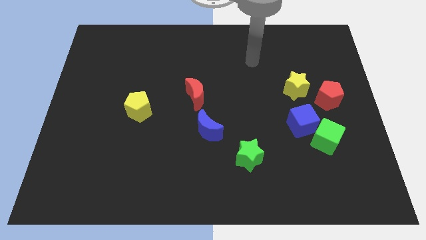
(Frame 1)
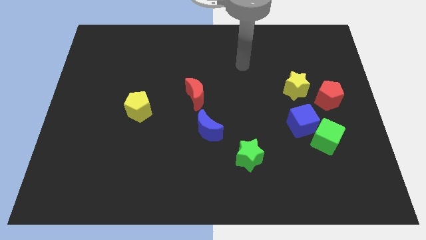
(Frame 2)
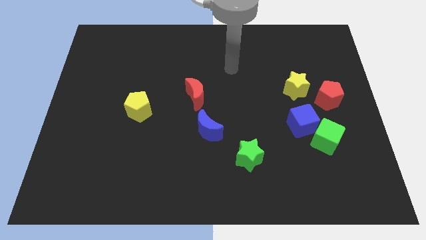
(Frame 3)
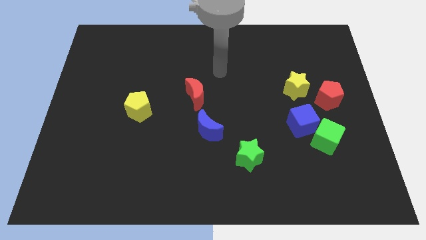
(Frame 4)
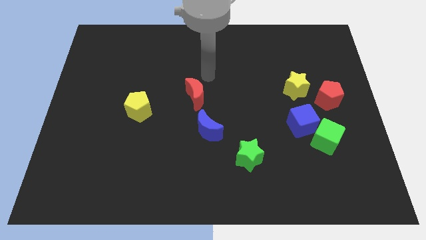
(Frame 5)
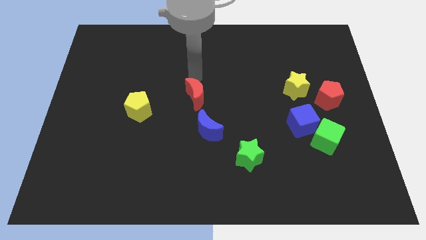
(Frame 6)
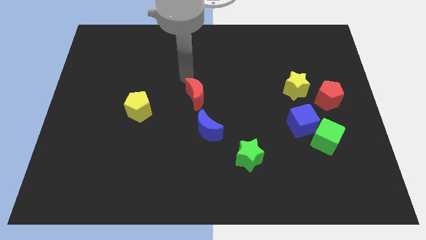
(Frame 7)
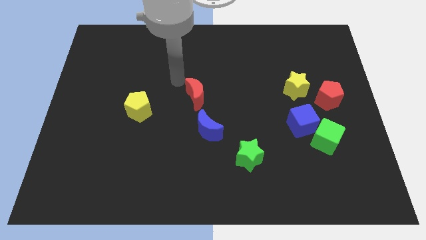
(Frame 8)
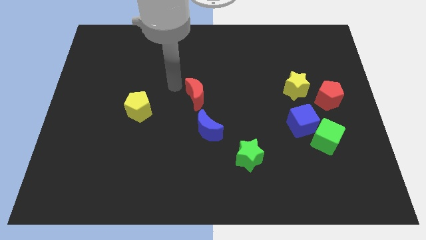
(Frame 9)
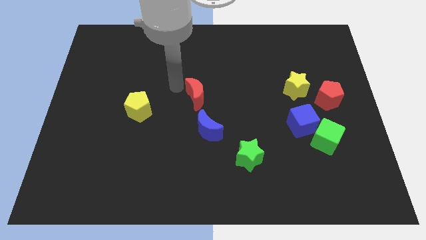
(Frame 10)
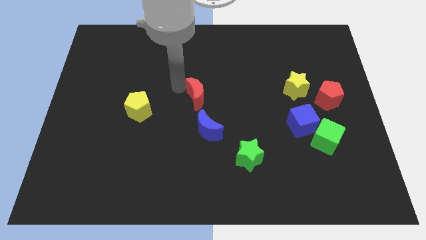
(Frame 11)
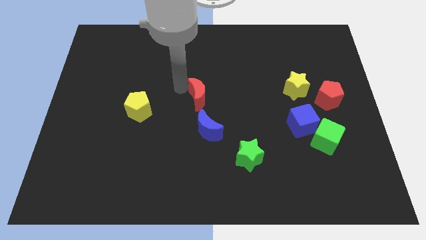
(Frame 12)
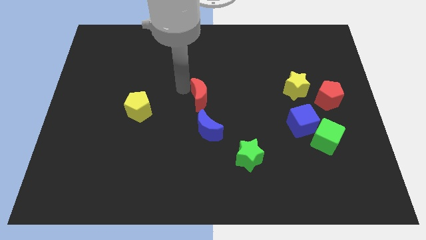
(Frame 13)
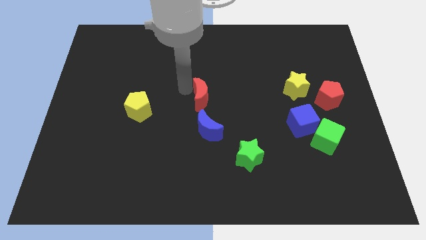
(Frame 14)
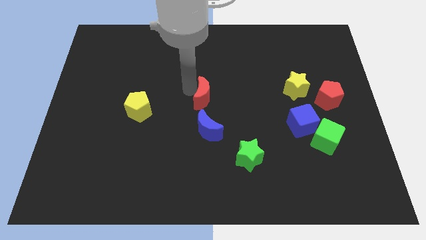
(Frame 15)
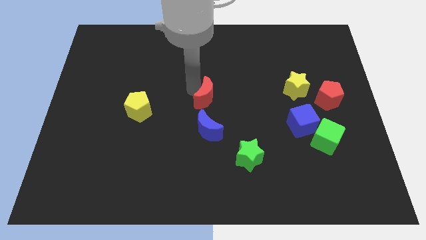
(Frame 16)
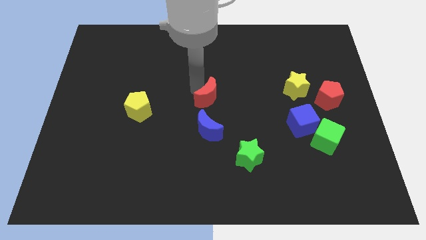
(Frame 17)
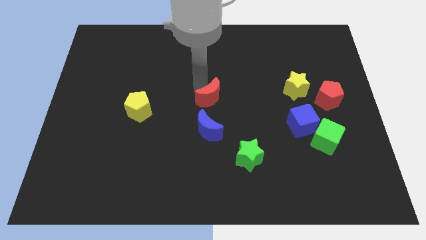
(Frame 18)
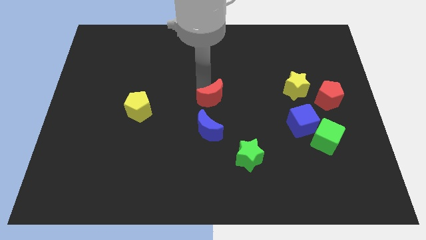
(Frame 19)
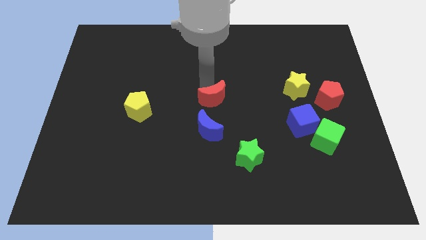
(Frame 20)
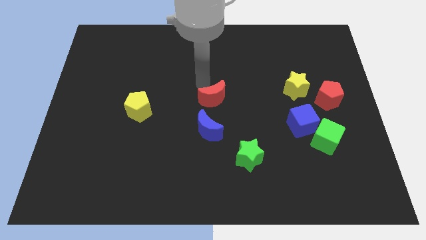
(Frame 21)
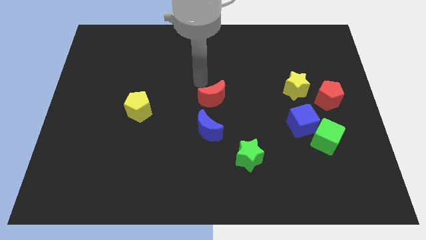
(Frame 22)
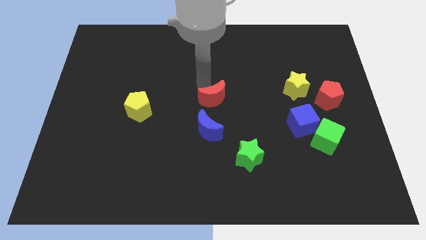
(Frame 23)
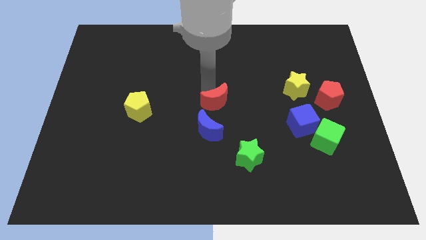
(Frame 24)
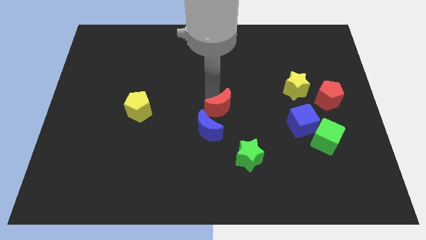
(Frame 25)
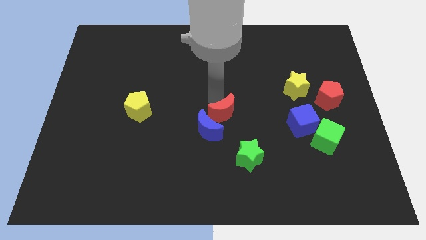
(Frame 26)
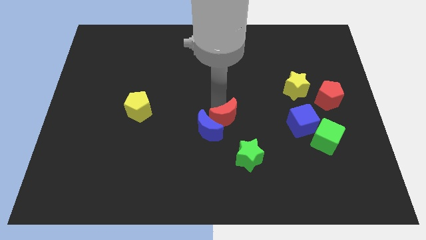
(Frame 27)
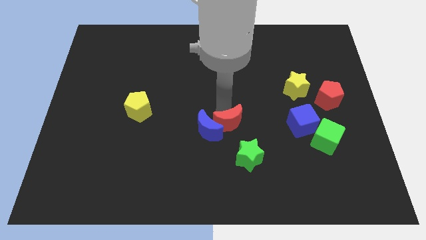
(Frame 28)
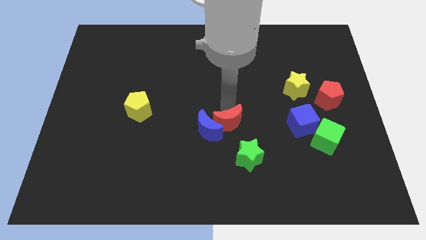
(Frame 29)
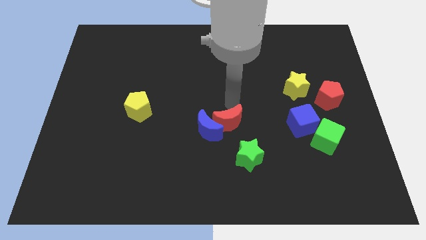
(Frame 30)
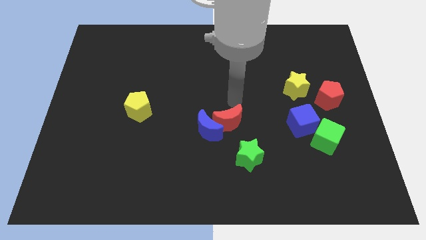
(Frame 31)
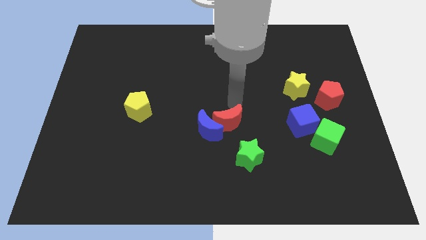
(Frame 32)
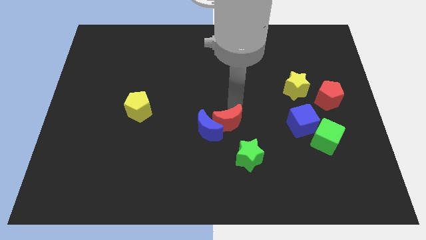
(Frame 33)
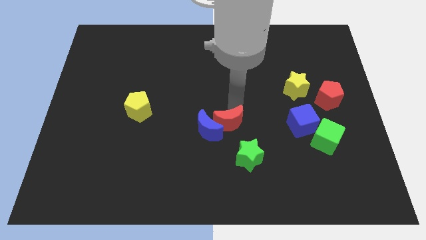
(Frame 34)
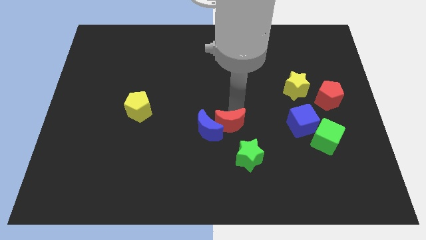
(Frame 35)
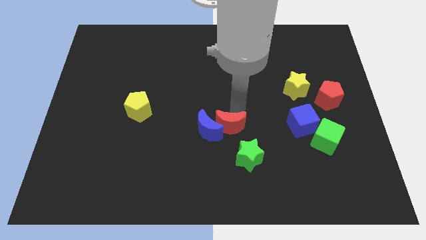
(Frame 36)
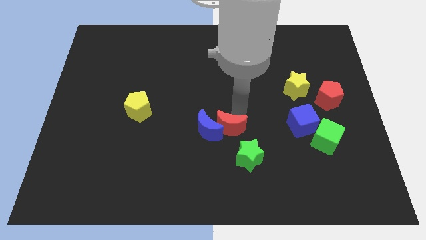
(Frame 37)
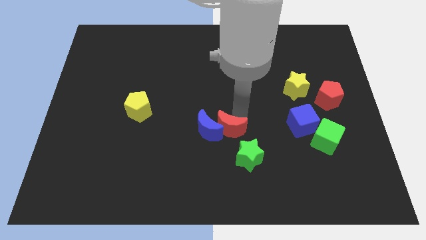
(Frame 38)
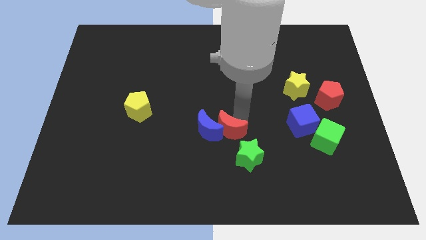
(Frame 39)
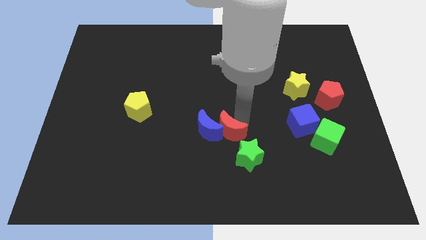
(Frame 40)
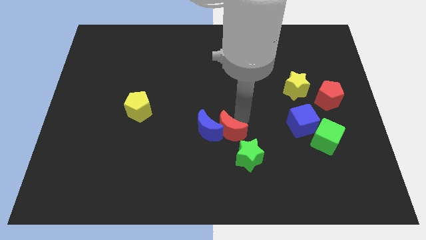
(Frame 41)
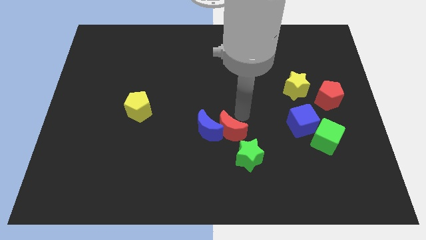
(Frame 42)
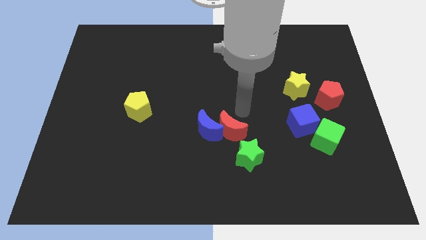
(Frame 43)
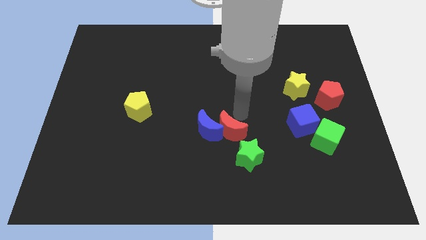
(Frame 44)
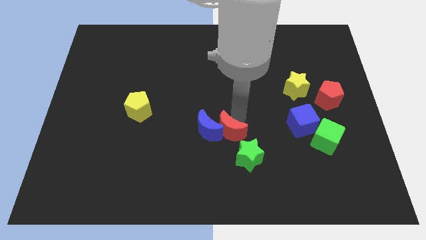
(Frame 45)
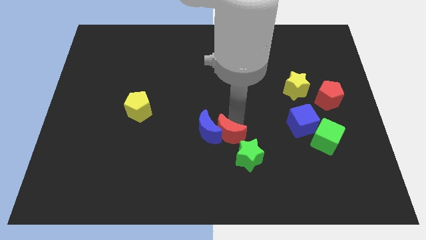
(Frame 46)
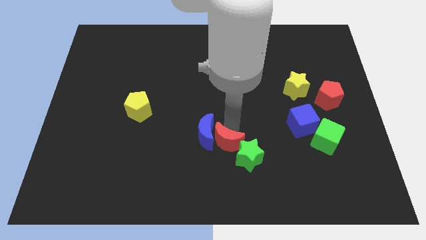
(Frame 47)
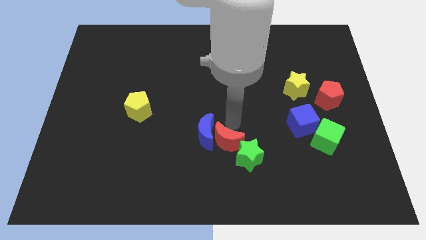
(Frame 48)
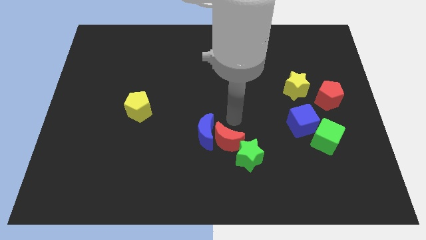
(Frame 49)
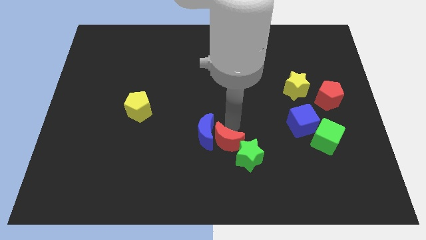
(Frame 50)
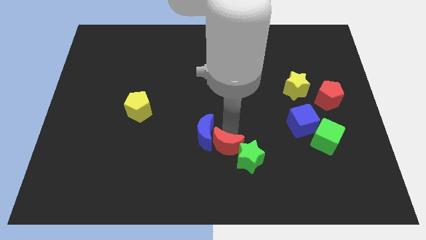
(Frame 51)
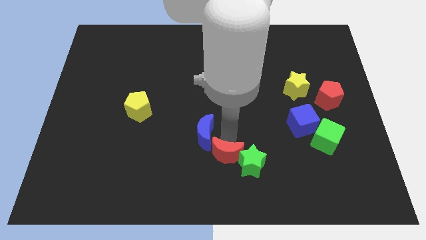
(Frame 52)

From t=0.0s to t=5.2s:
put the red moon to the bottom

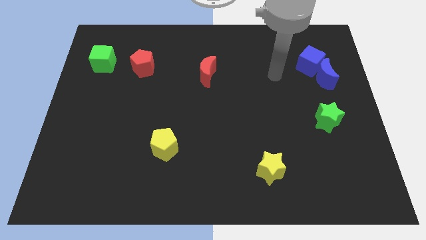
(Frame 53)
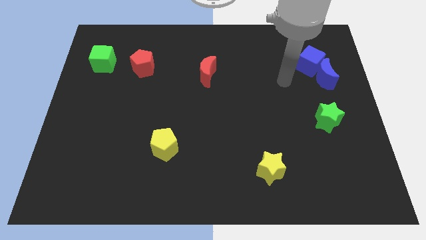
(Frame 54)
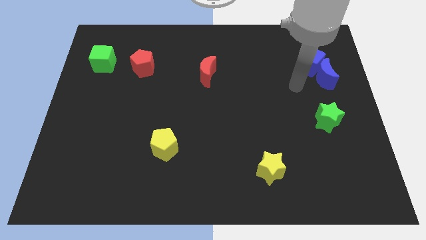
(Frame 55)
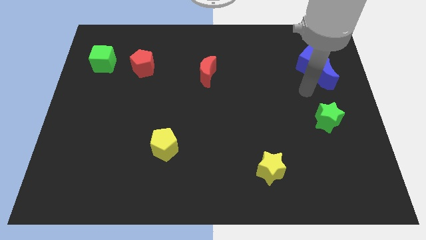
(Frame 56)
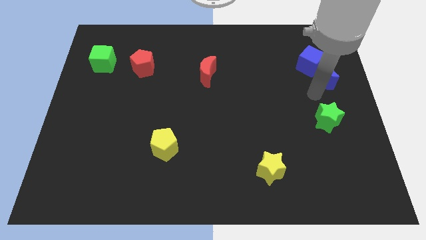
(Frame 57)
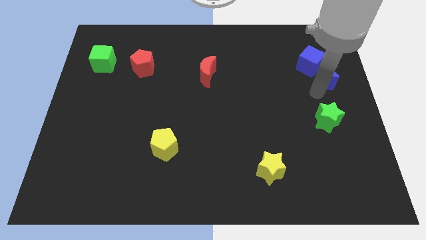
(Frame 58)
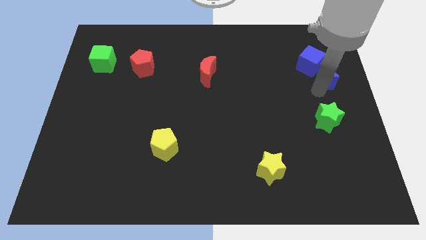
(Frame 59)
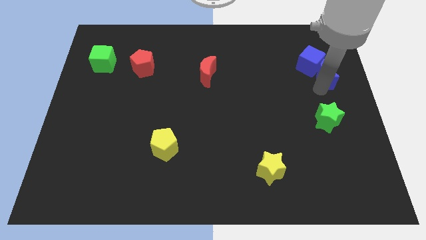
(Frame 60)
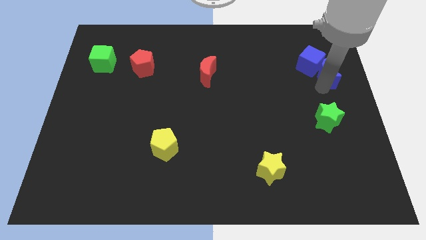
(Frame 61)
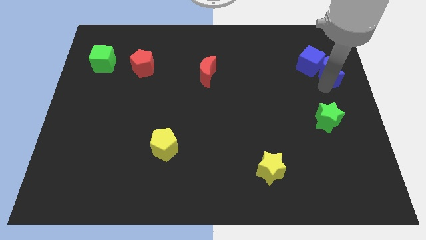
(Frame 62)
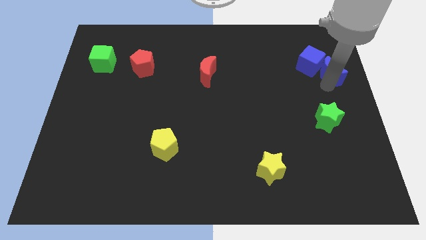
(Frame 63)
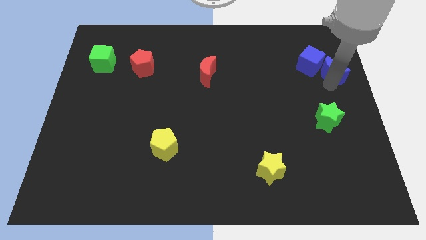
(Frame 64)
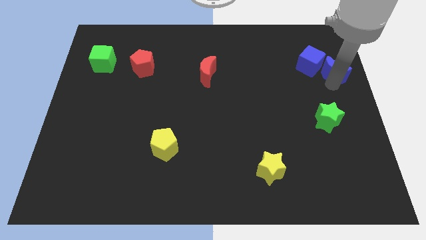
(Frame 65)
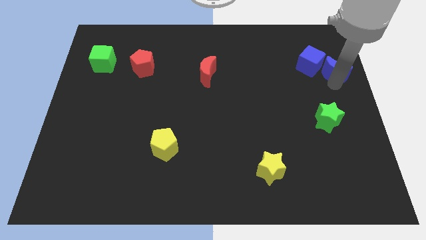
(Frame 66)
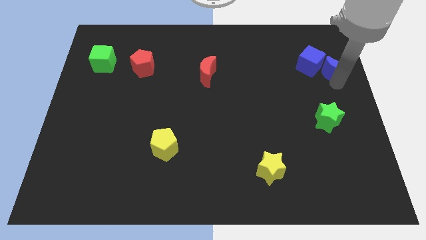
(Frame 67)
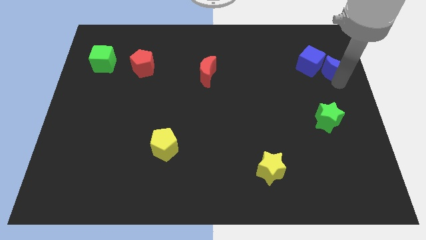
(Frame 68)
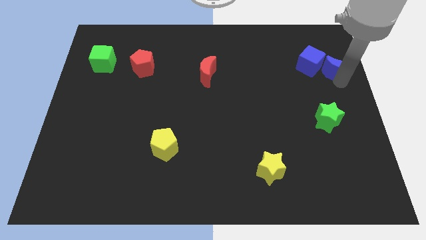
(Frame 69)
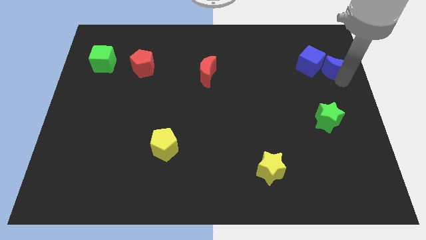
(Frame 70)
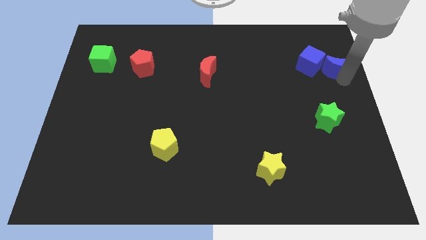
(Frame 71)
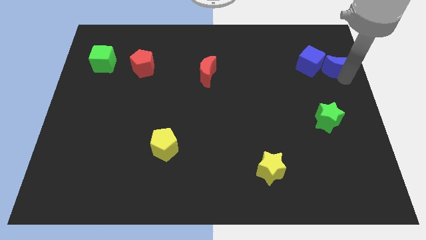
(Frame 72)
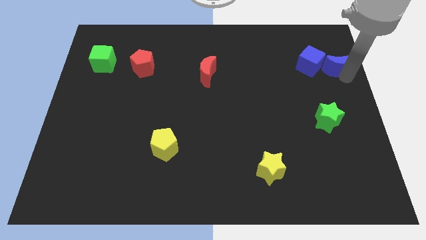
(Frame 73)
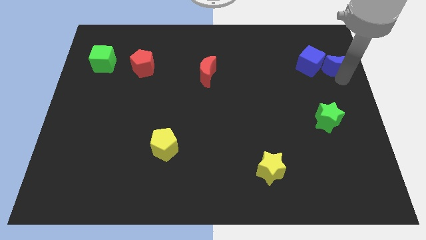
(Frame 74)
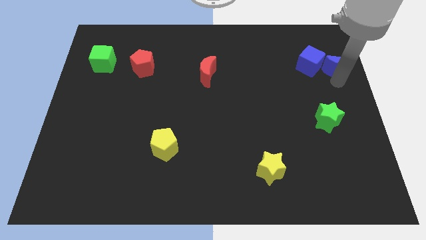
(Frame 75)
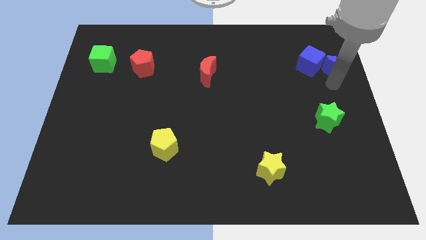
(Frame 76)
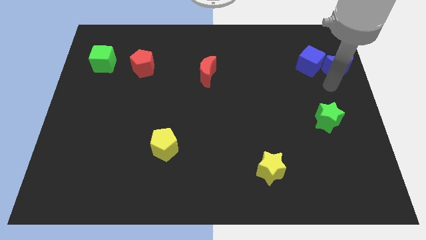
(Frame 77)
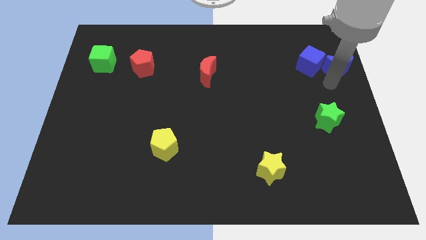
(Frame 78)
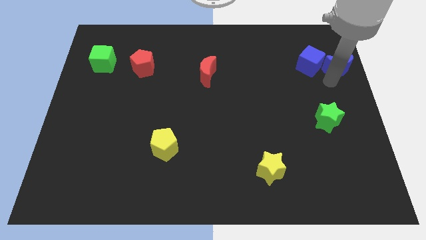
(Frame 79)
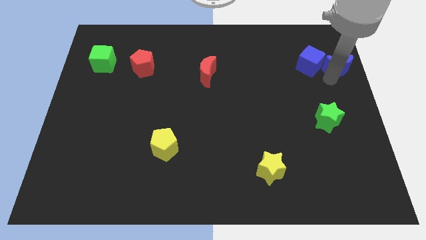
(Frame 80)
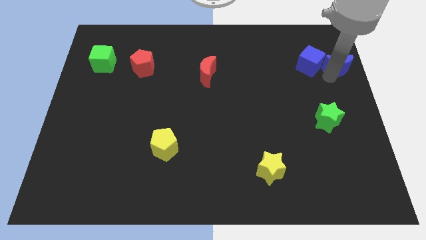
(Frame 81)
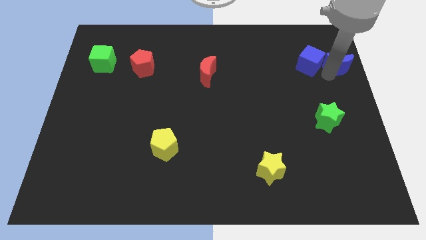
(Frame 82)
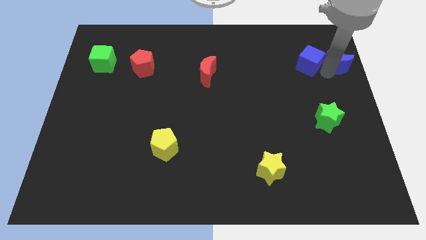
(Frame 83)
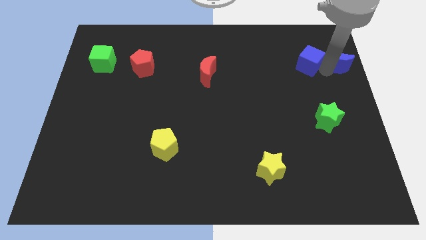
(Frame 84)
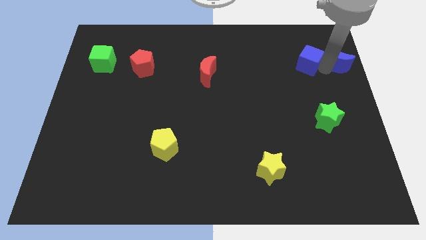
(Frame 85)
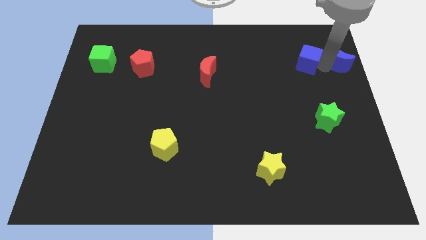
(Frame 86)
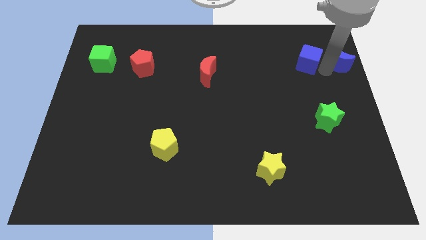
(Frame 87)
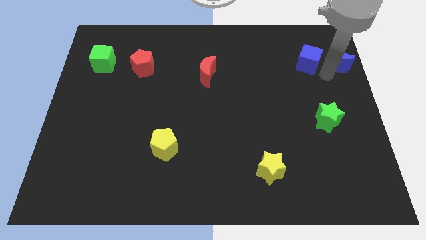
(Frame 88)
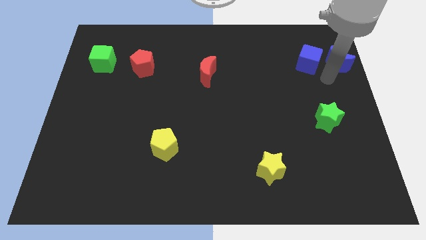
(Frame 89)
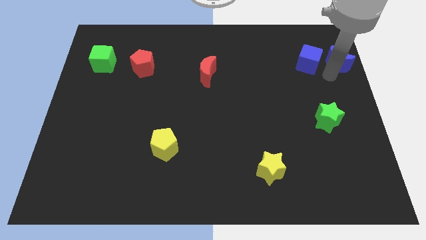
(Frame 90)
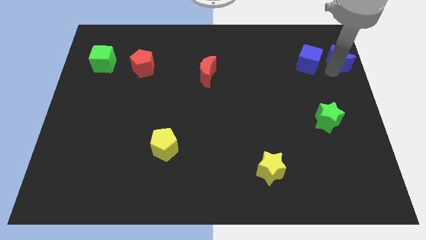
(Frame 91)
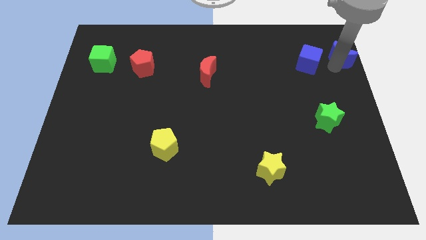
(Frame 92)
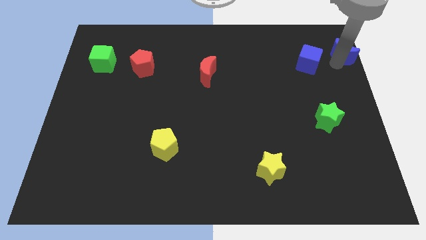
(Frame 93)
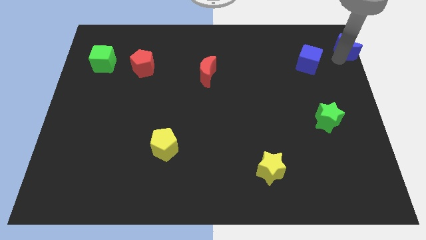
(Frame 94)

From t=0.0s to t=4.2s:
put the blue moon to the top right corner
